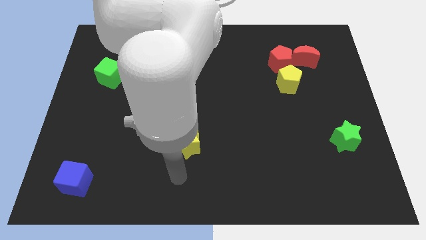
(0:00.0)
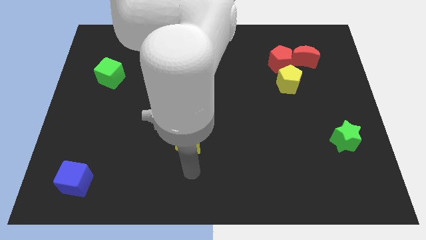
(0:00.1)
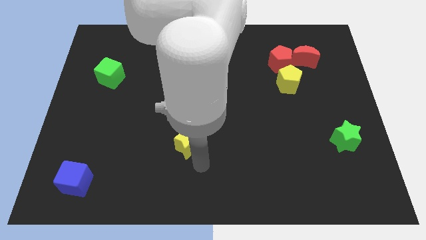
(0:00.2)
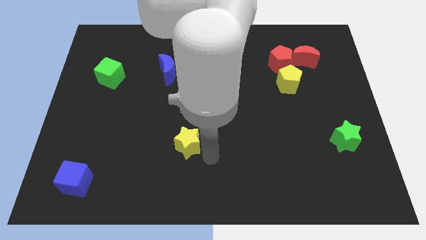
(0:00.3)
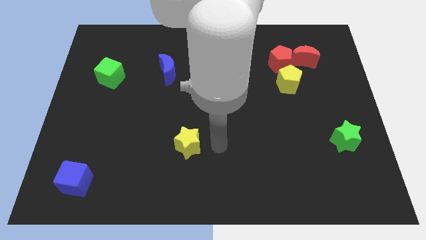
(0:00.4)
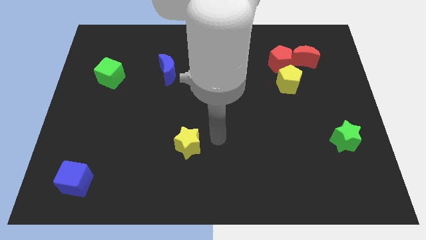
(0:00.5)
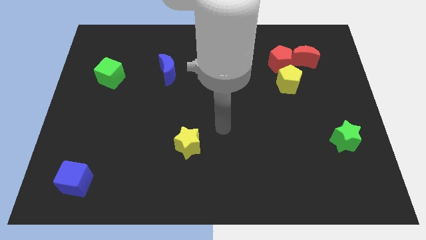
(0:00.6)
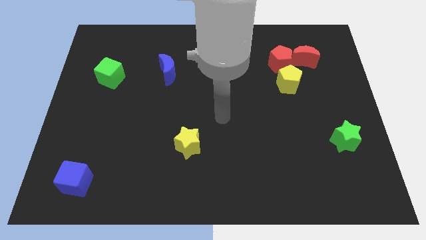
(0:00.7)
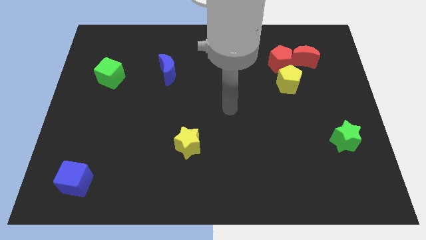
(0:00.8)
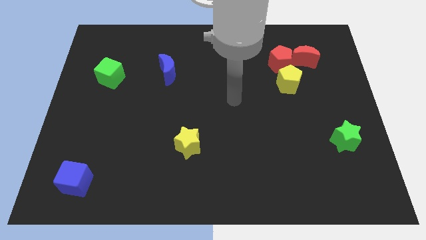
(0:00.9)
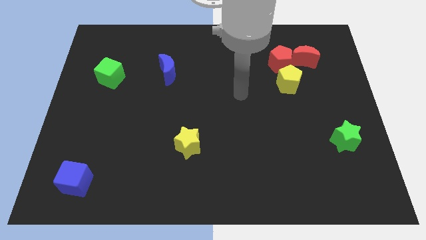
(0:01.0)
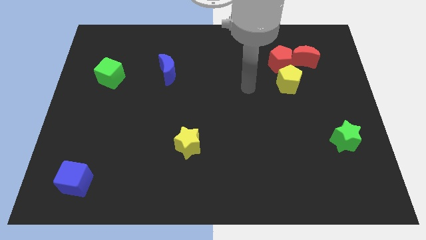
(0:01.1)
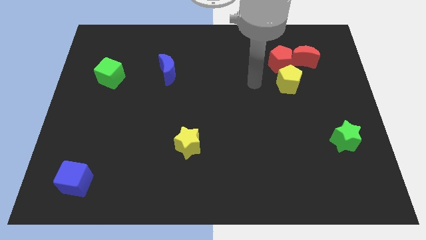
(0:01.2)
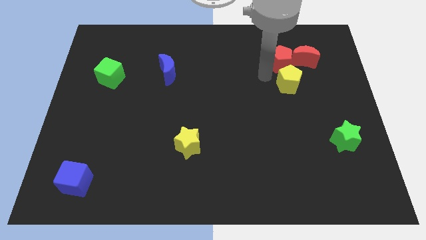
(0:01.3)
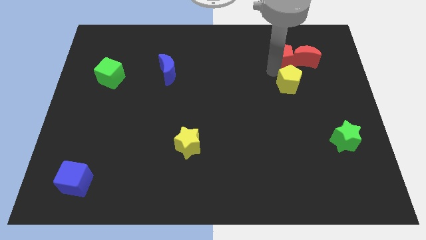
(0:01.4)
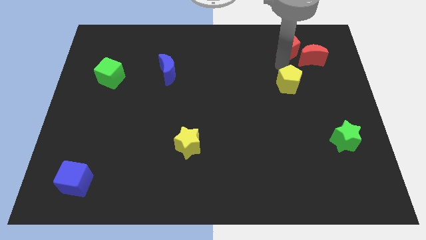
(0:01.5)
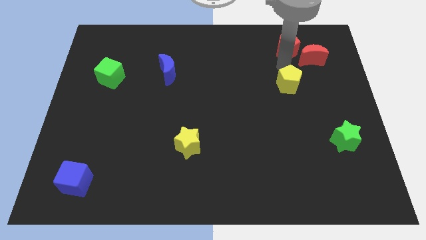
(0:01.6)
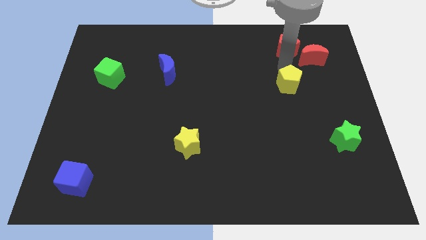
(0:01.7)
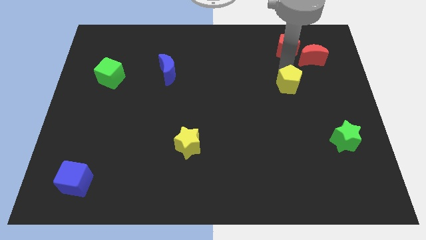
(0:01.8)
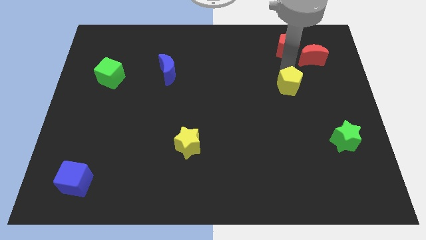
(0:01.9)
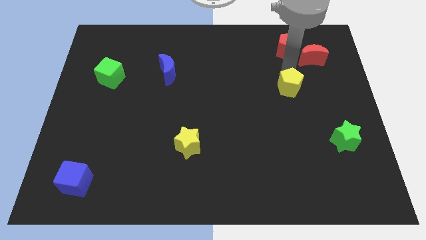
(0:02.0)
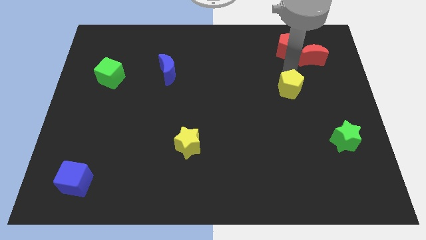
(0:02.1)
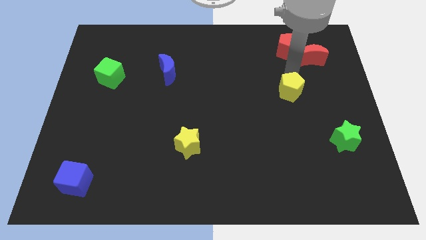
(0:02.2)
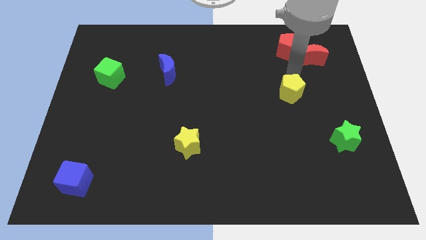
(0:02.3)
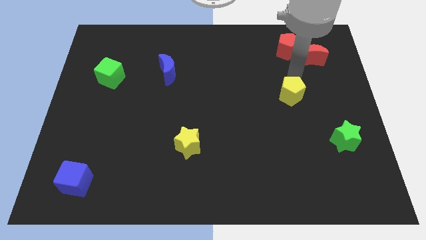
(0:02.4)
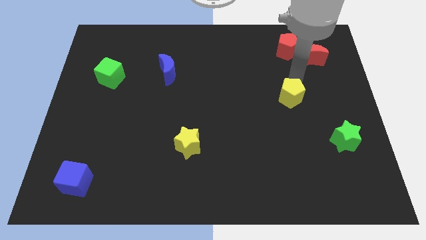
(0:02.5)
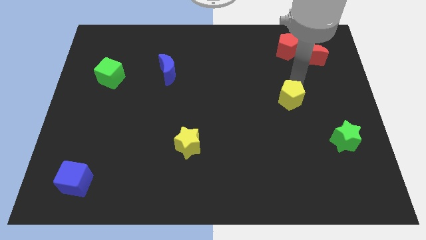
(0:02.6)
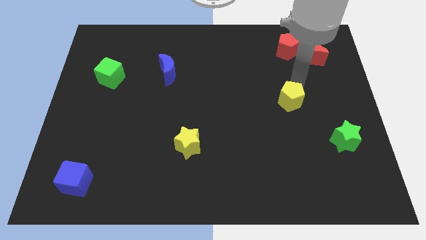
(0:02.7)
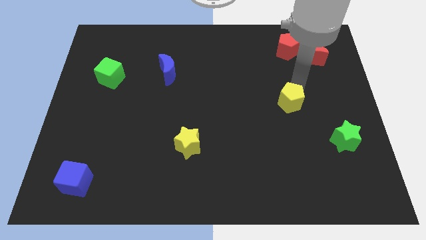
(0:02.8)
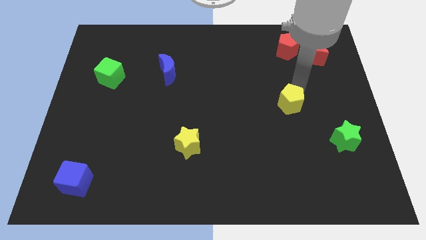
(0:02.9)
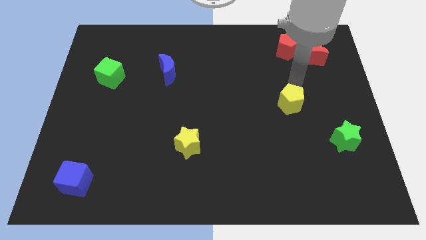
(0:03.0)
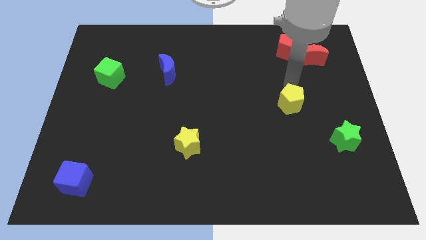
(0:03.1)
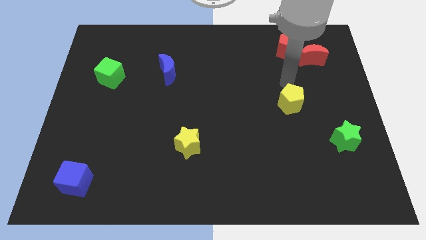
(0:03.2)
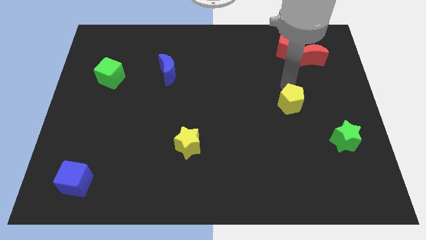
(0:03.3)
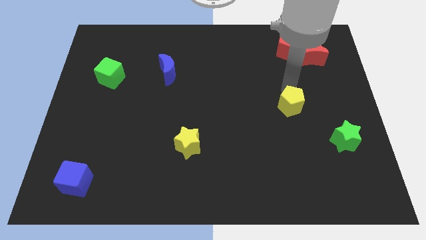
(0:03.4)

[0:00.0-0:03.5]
slide the yellow pentagon somewhat downwards

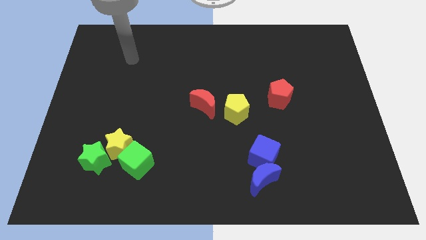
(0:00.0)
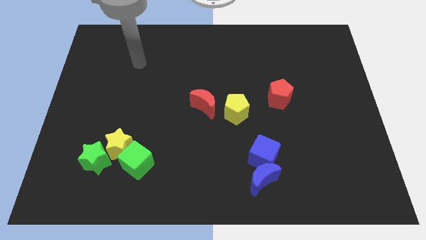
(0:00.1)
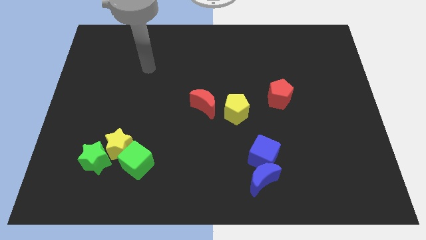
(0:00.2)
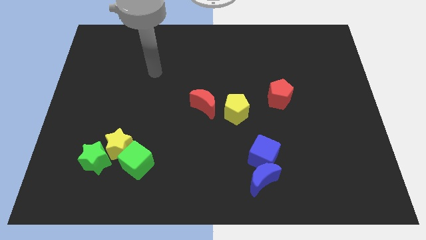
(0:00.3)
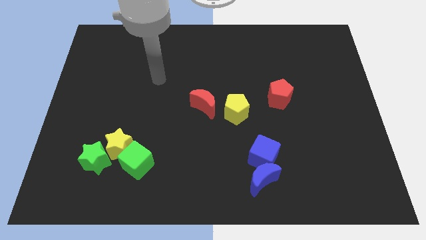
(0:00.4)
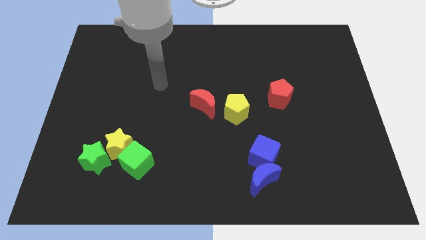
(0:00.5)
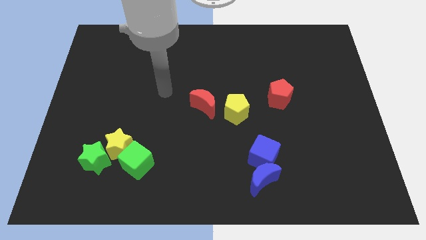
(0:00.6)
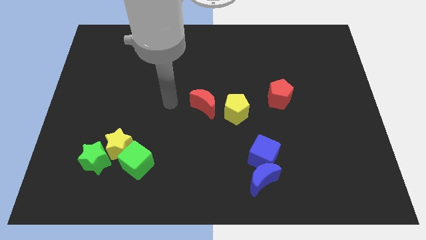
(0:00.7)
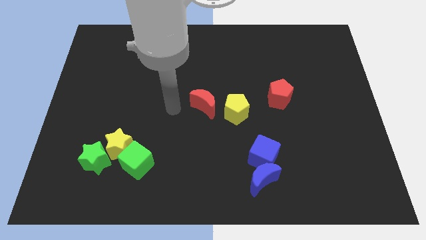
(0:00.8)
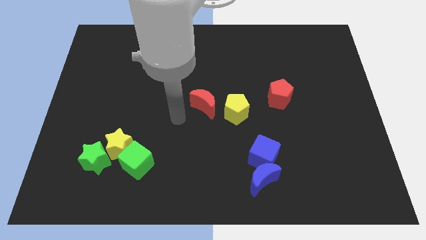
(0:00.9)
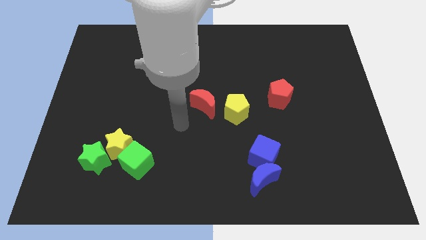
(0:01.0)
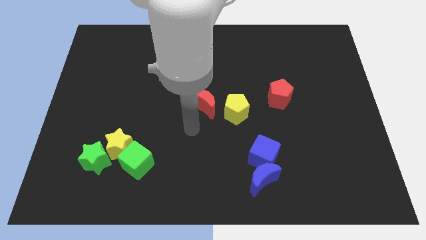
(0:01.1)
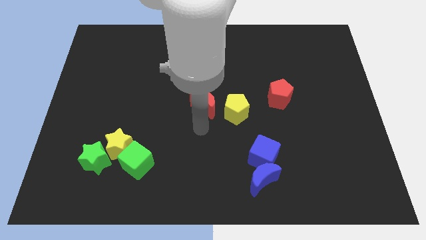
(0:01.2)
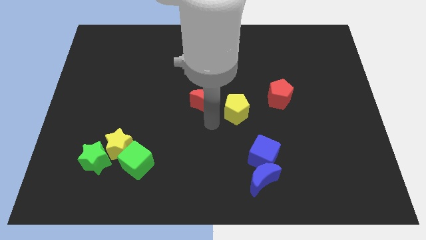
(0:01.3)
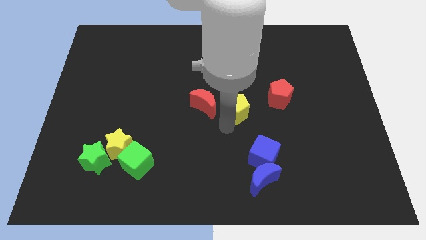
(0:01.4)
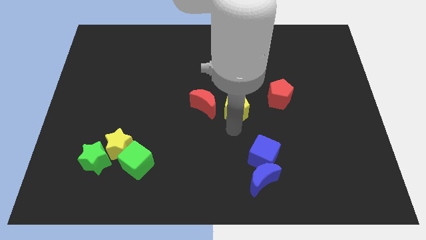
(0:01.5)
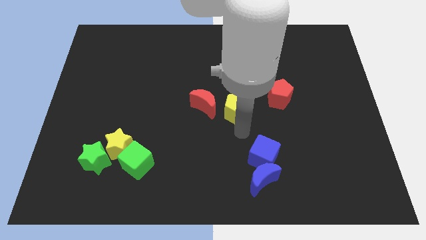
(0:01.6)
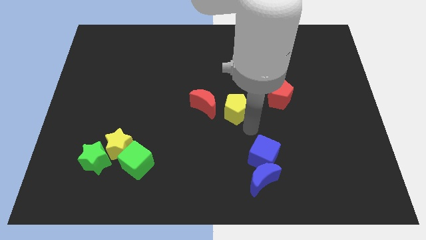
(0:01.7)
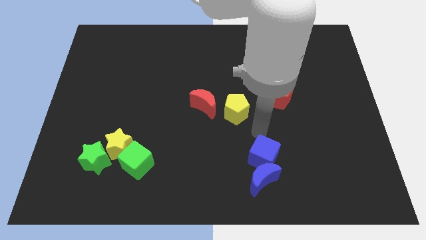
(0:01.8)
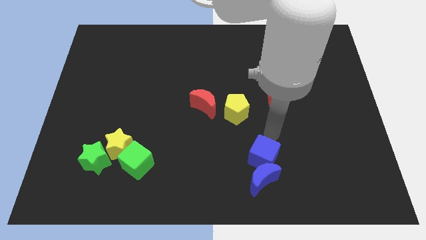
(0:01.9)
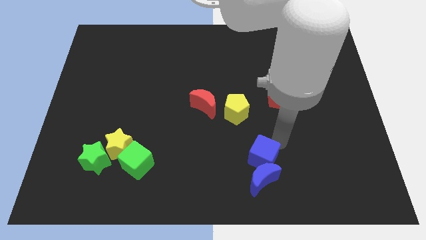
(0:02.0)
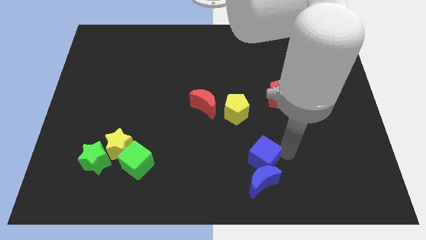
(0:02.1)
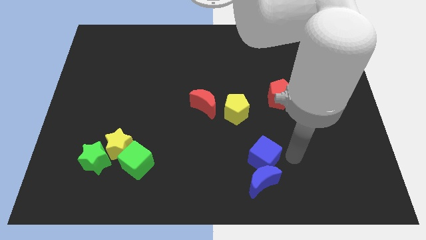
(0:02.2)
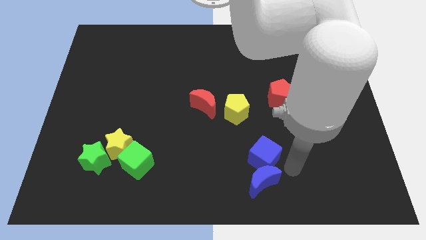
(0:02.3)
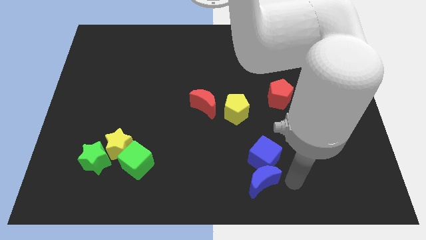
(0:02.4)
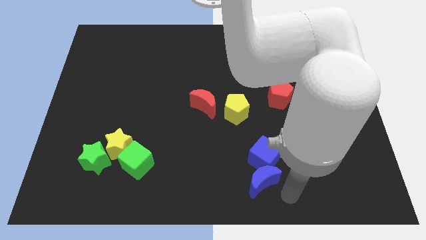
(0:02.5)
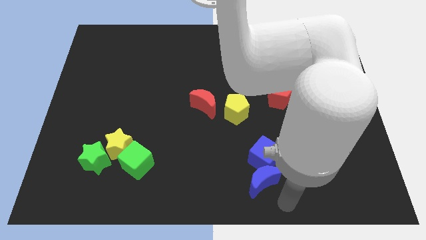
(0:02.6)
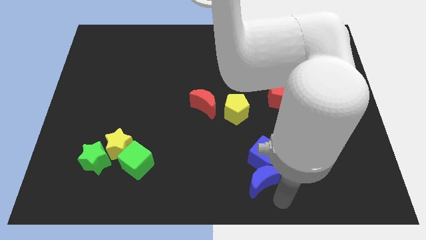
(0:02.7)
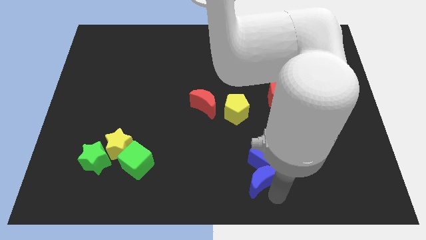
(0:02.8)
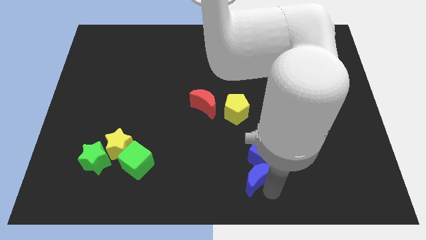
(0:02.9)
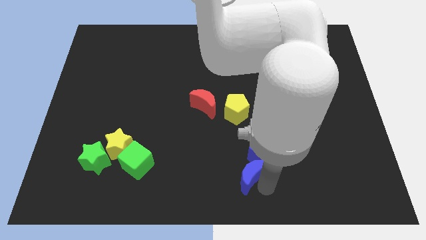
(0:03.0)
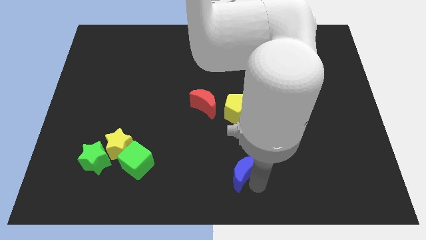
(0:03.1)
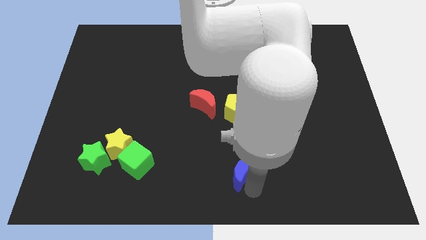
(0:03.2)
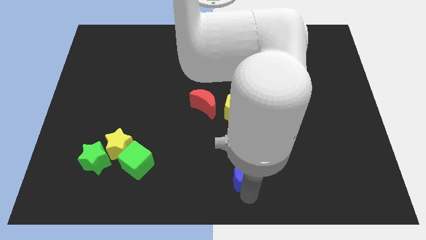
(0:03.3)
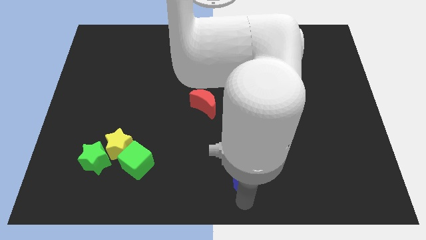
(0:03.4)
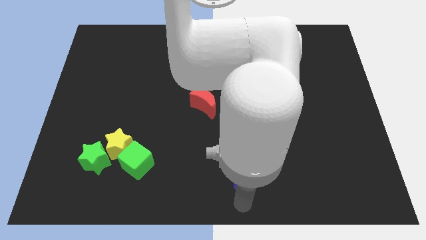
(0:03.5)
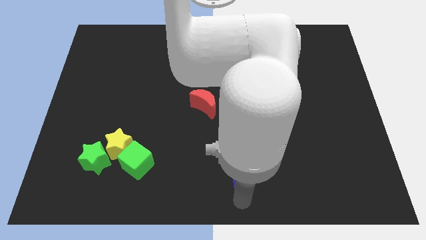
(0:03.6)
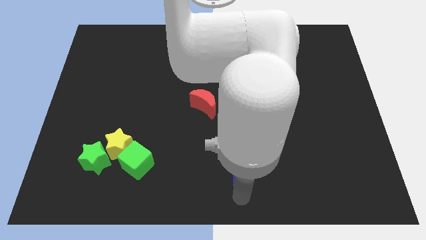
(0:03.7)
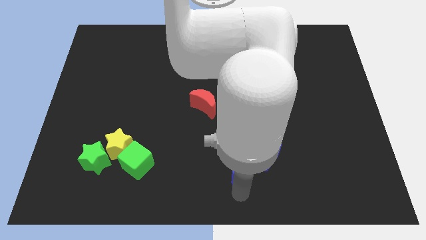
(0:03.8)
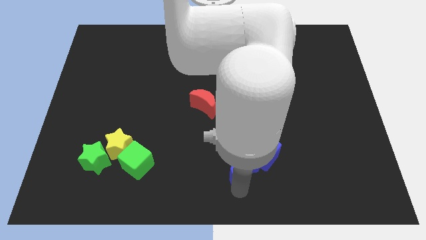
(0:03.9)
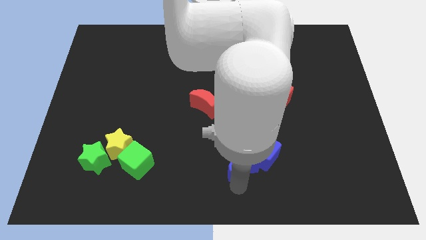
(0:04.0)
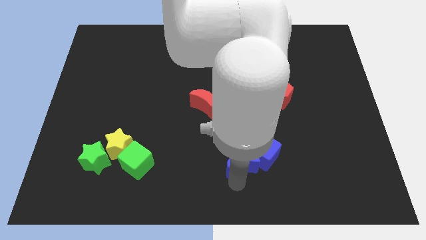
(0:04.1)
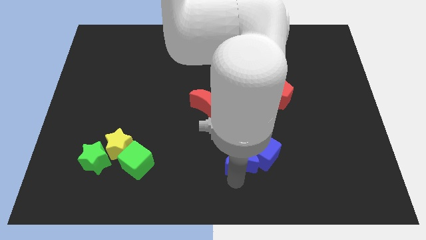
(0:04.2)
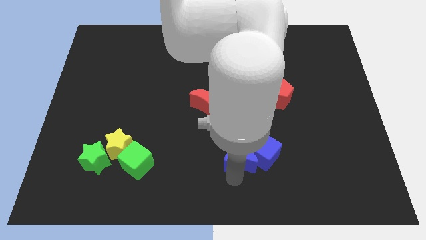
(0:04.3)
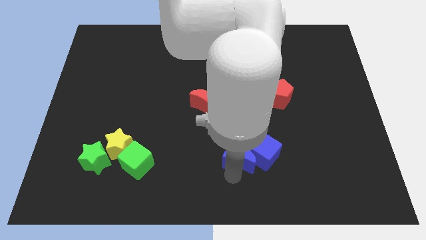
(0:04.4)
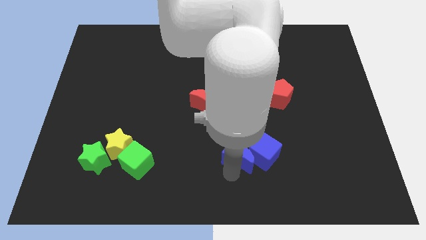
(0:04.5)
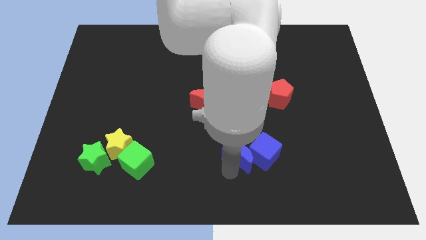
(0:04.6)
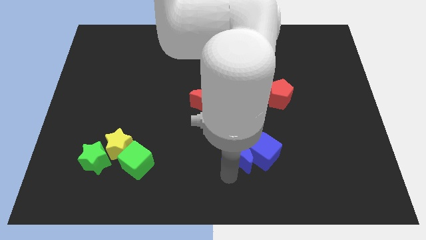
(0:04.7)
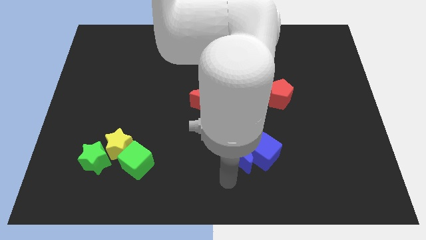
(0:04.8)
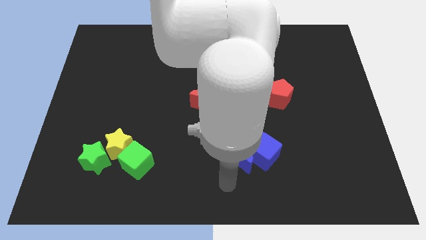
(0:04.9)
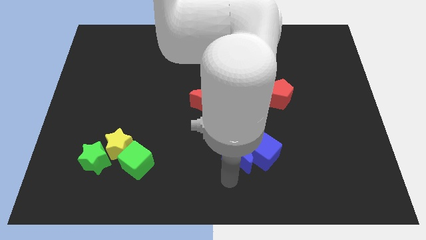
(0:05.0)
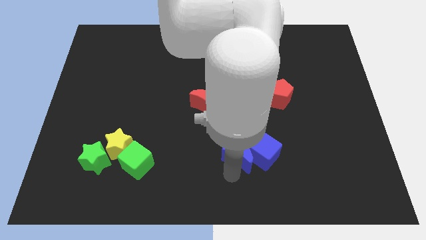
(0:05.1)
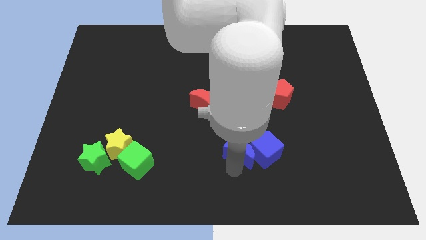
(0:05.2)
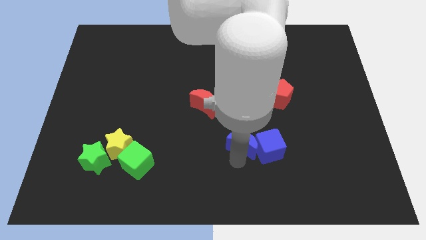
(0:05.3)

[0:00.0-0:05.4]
slightly slide the blue moon up
